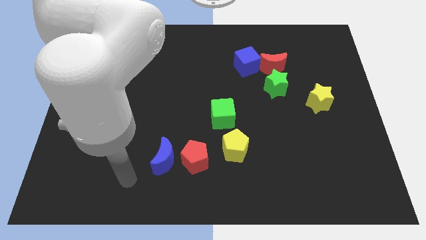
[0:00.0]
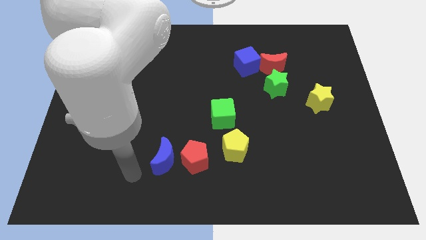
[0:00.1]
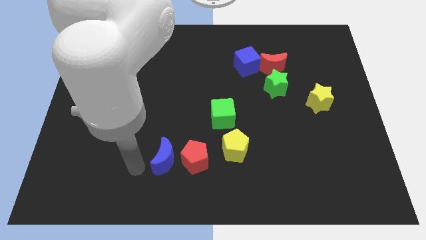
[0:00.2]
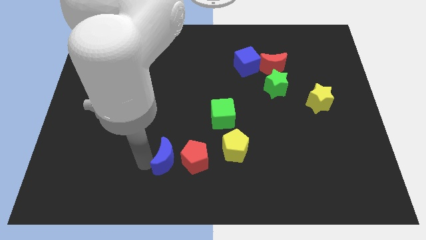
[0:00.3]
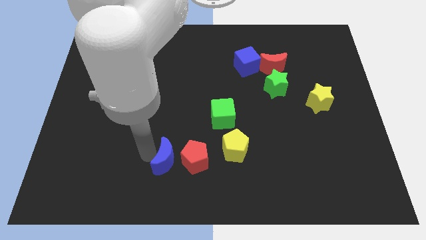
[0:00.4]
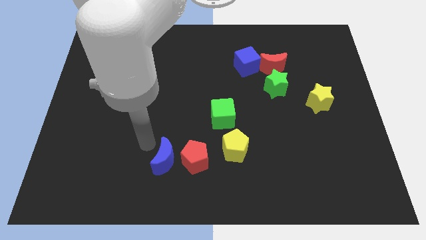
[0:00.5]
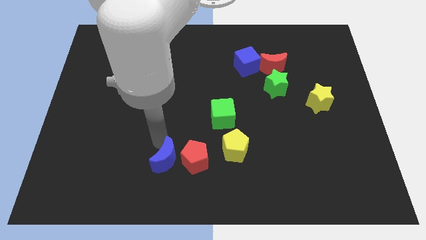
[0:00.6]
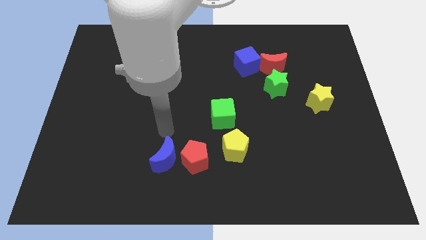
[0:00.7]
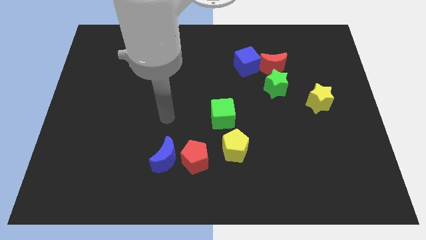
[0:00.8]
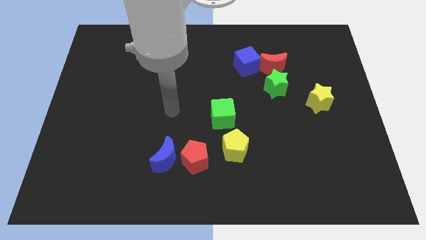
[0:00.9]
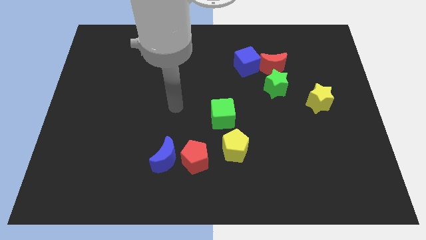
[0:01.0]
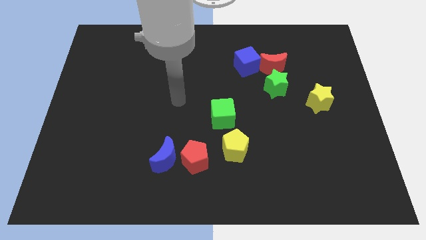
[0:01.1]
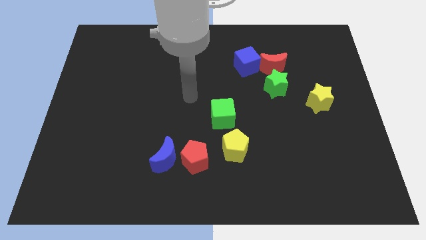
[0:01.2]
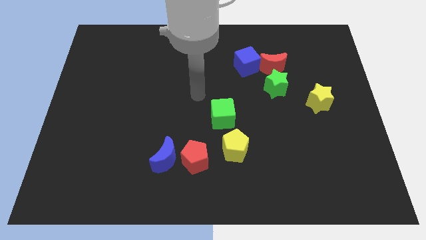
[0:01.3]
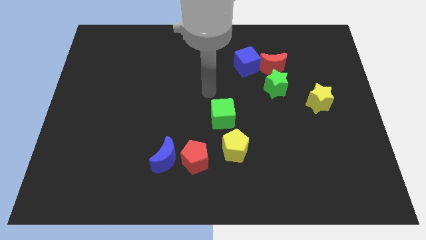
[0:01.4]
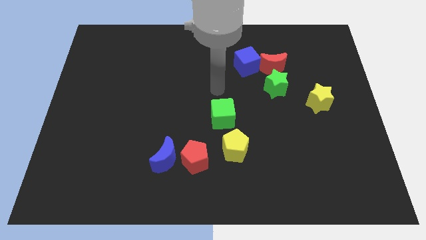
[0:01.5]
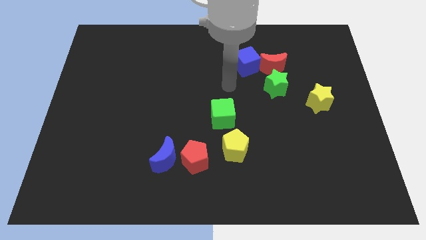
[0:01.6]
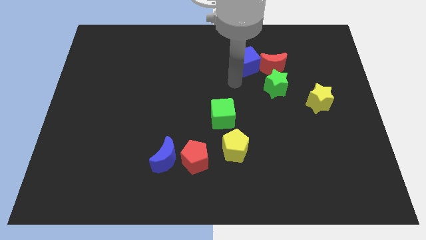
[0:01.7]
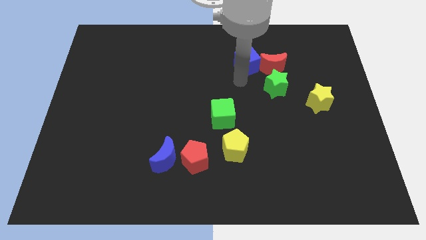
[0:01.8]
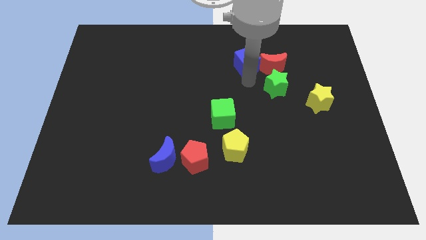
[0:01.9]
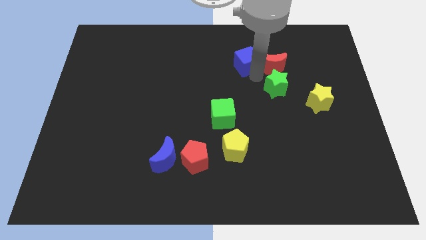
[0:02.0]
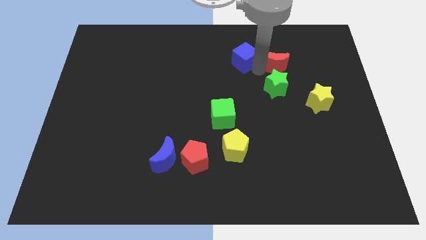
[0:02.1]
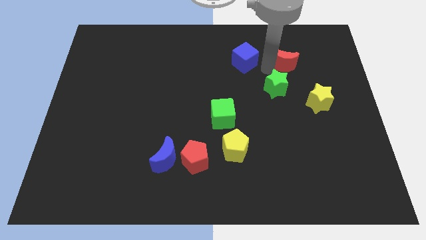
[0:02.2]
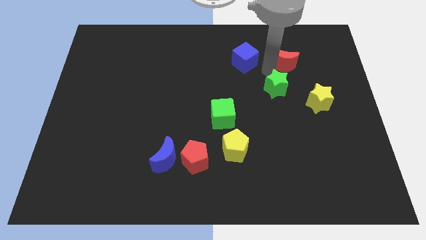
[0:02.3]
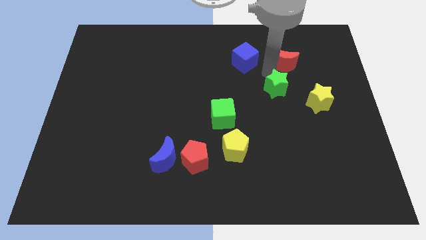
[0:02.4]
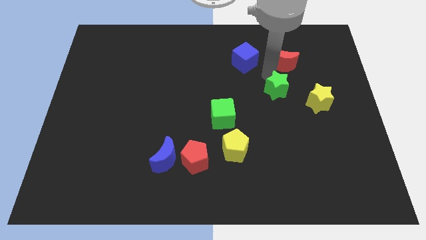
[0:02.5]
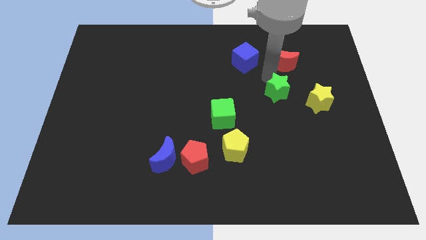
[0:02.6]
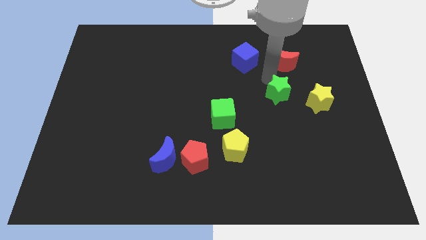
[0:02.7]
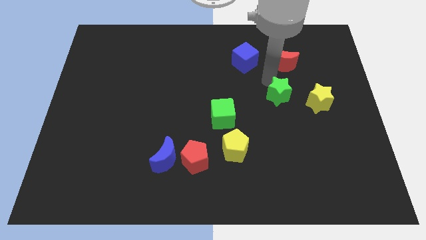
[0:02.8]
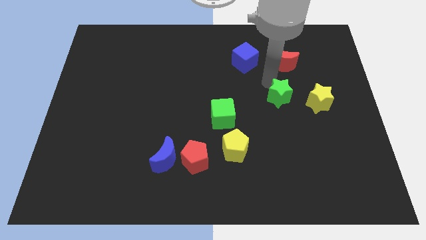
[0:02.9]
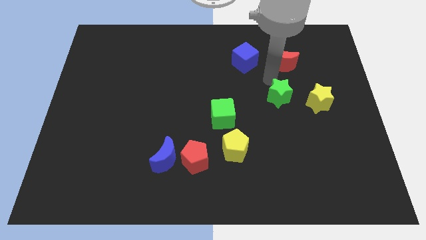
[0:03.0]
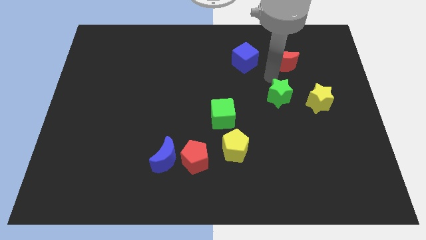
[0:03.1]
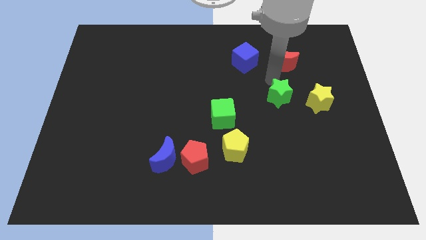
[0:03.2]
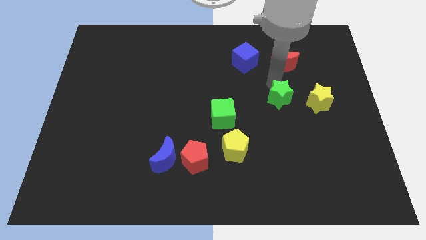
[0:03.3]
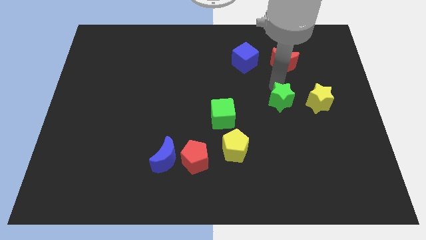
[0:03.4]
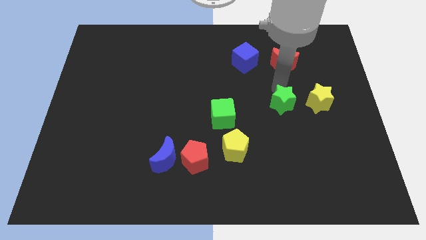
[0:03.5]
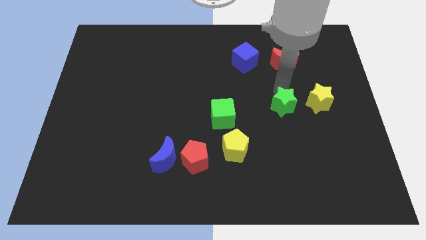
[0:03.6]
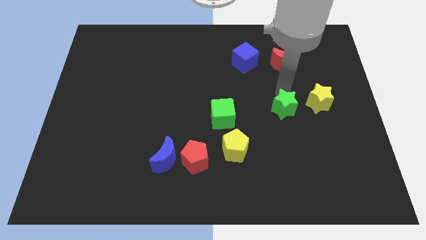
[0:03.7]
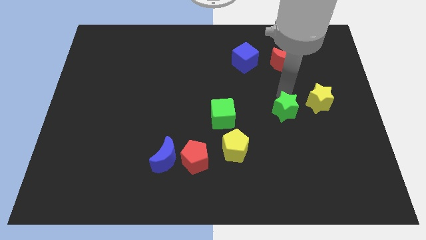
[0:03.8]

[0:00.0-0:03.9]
slide the green star downwards slightly

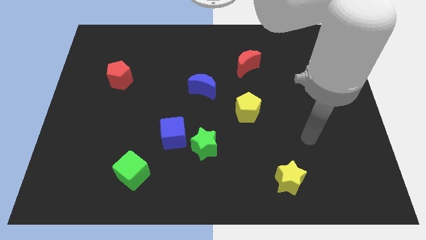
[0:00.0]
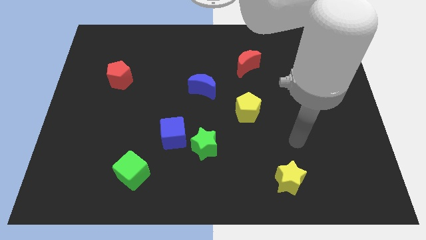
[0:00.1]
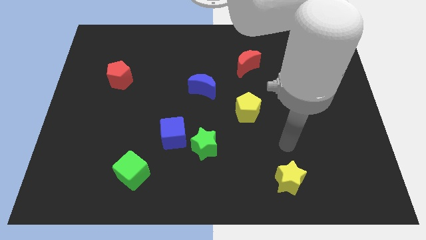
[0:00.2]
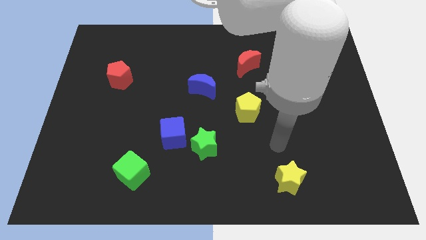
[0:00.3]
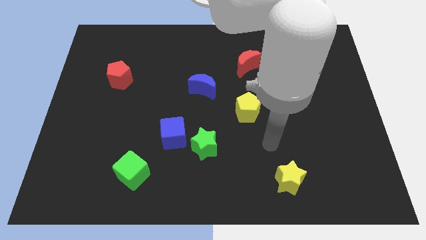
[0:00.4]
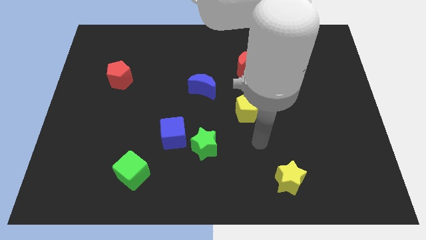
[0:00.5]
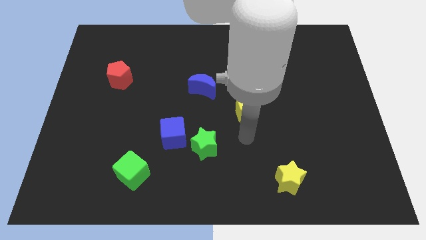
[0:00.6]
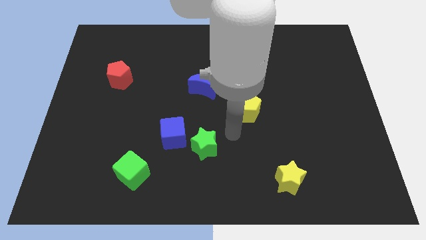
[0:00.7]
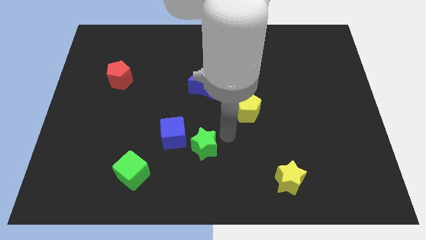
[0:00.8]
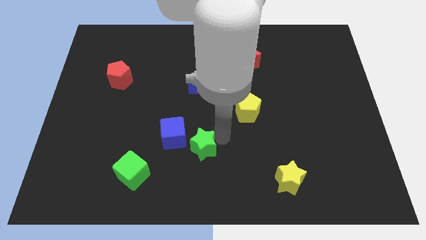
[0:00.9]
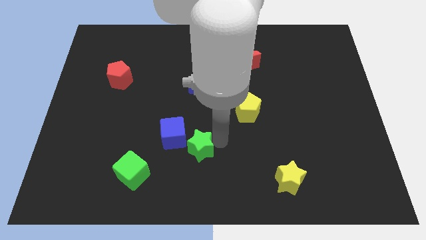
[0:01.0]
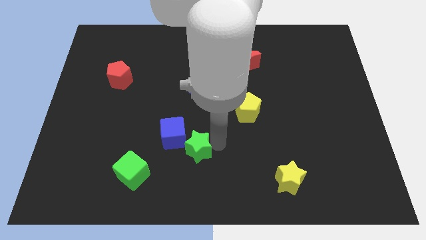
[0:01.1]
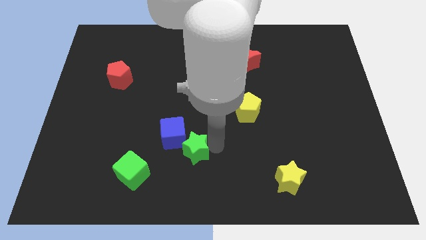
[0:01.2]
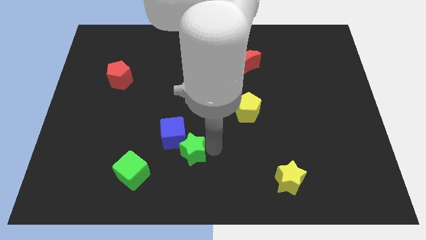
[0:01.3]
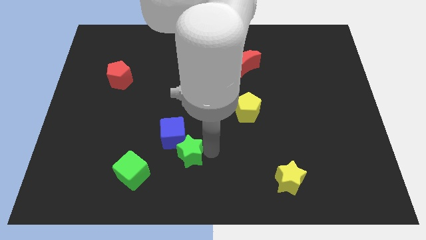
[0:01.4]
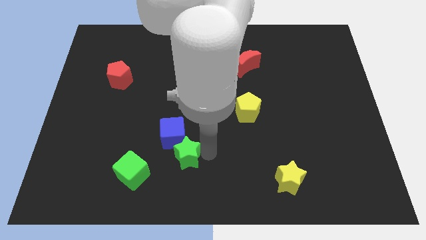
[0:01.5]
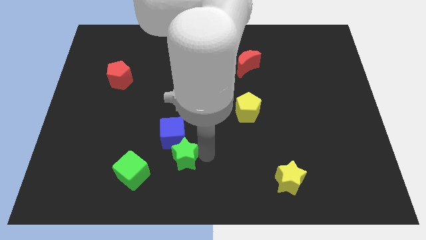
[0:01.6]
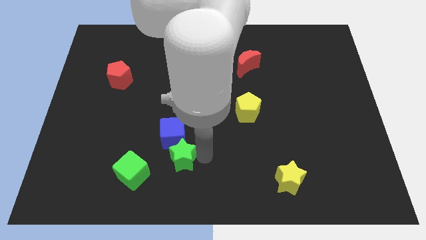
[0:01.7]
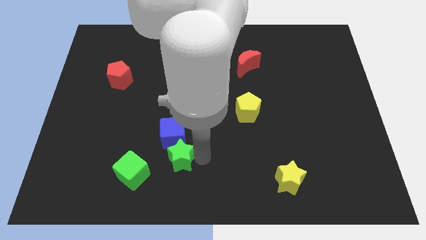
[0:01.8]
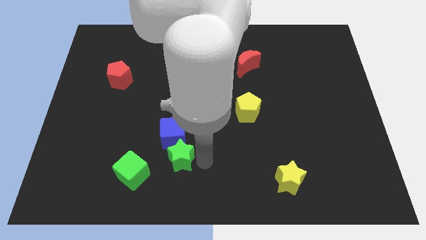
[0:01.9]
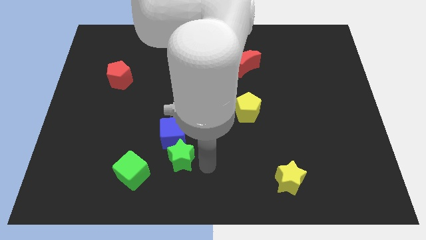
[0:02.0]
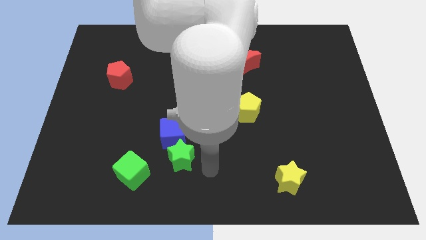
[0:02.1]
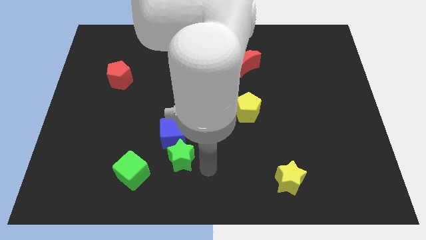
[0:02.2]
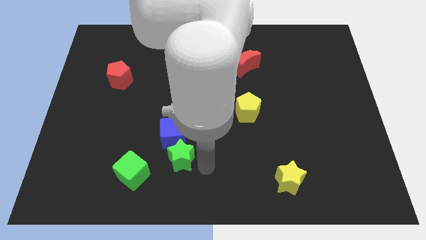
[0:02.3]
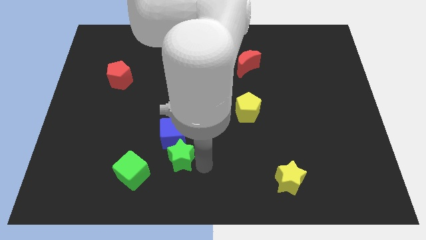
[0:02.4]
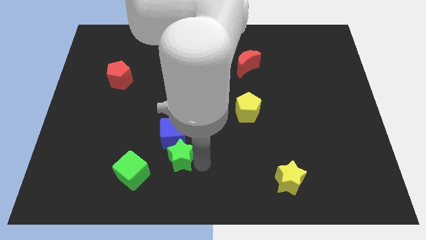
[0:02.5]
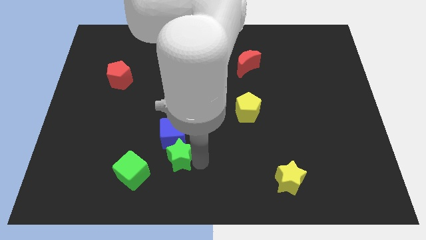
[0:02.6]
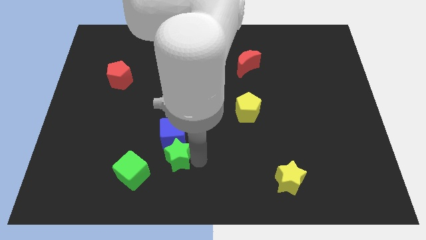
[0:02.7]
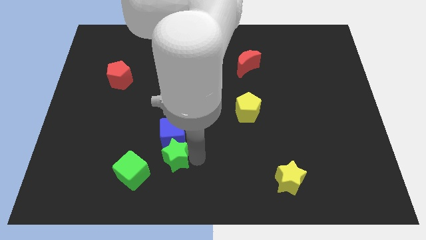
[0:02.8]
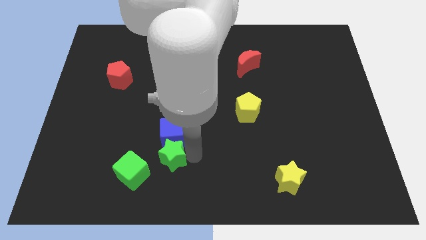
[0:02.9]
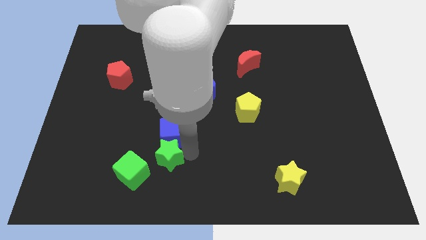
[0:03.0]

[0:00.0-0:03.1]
push the green star to the left somewhat

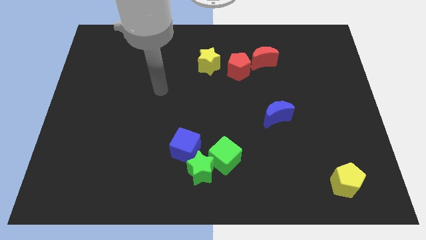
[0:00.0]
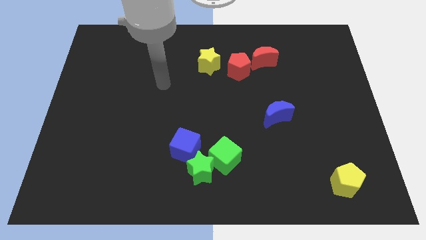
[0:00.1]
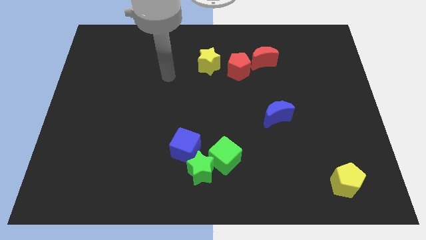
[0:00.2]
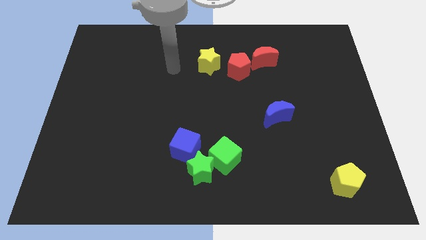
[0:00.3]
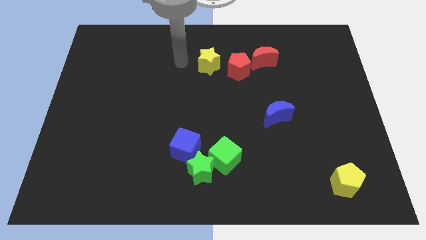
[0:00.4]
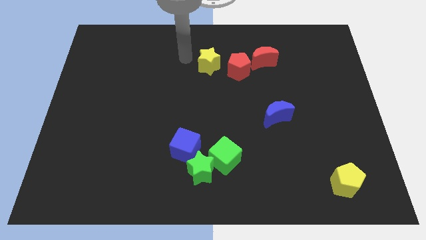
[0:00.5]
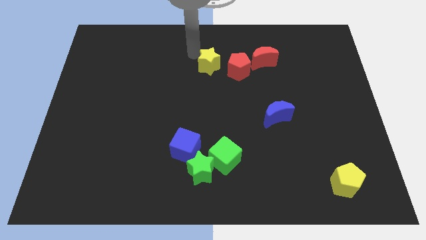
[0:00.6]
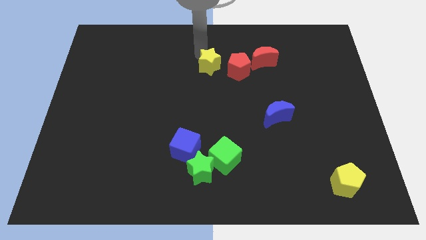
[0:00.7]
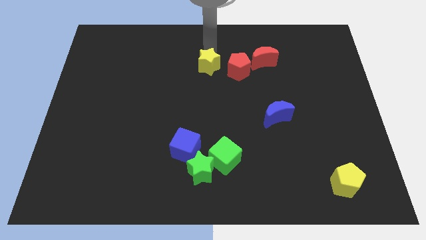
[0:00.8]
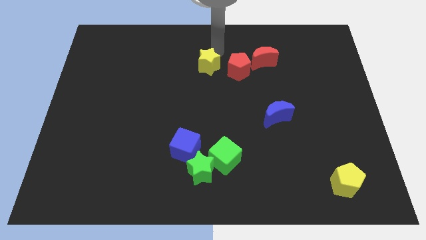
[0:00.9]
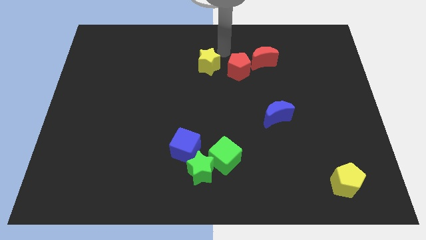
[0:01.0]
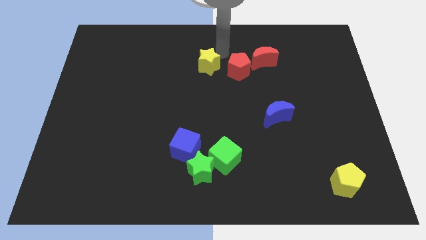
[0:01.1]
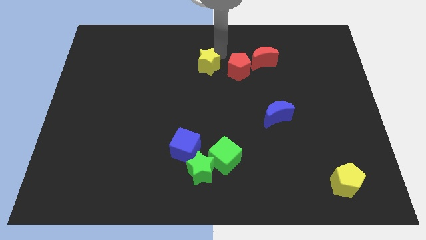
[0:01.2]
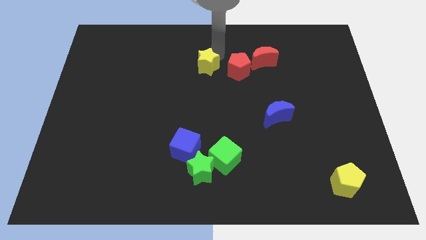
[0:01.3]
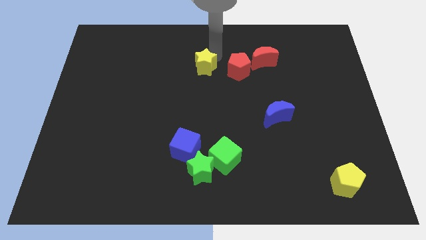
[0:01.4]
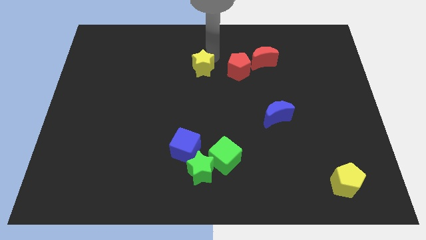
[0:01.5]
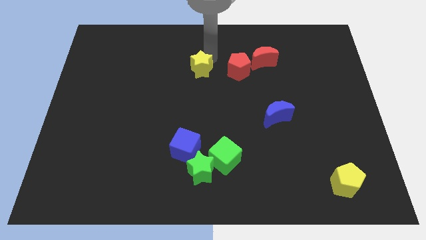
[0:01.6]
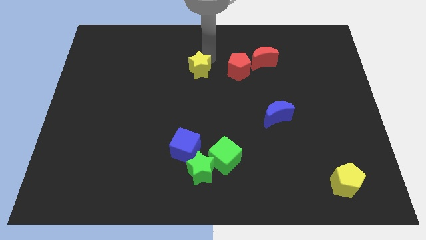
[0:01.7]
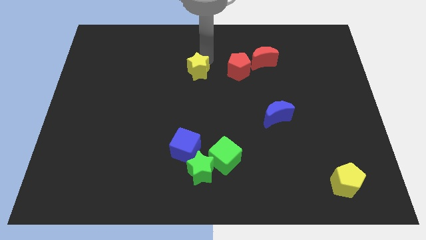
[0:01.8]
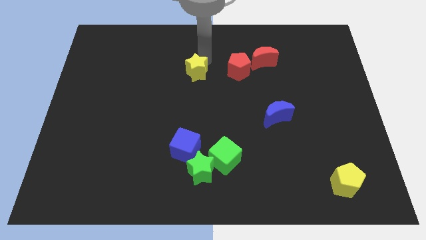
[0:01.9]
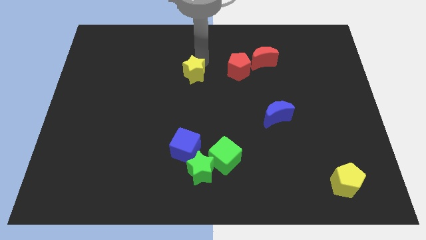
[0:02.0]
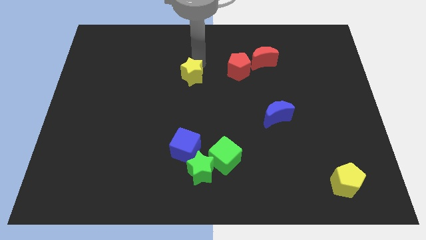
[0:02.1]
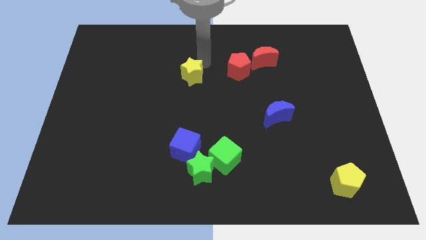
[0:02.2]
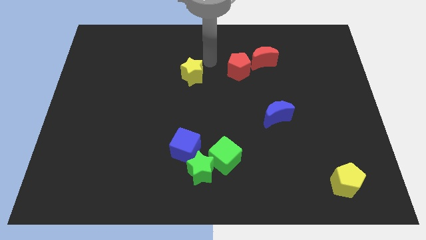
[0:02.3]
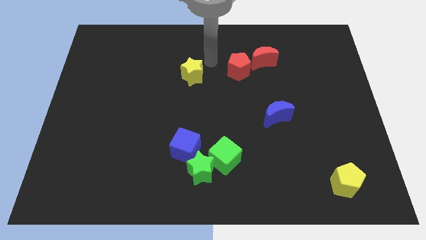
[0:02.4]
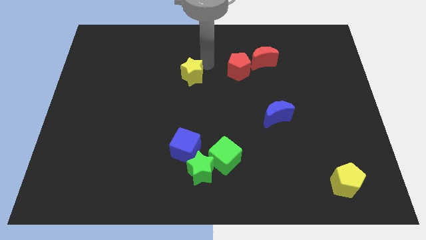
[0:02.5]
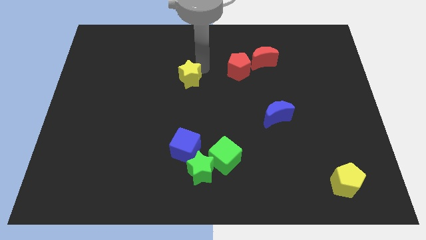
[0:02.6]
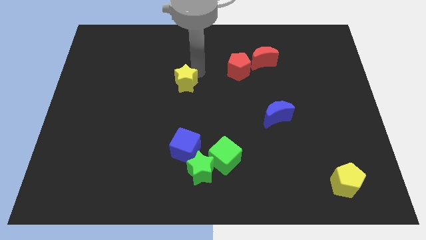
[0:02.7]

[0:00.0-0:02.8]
move the yellow star a little down and left
